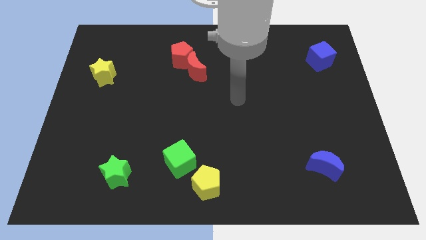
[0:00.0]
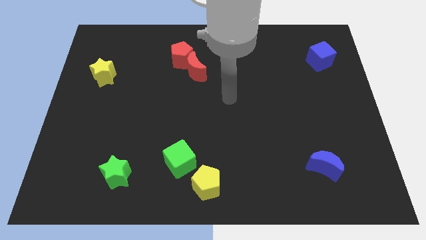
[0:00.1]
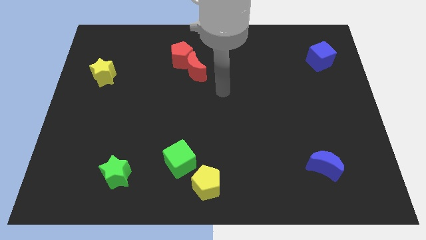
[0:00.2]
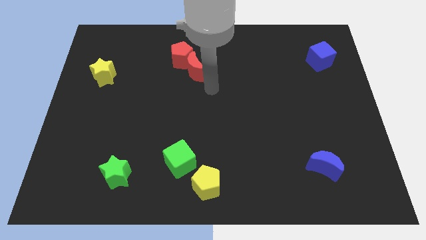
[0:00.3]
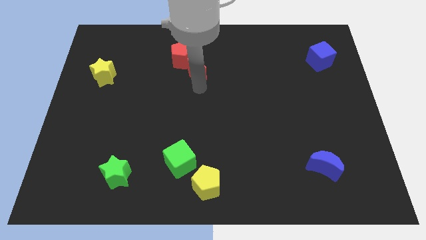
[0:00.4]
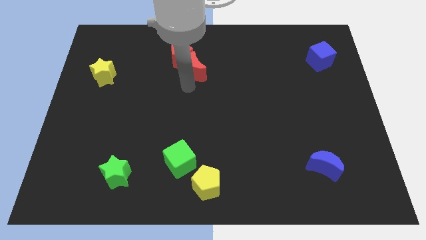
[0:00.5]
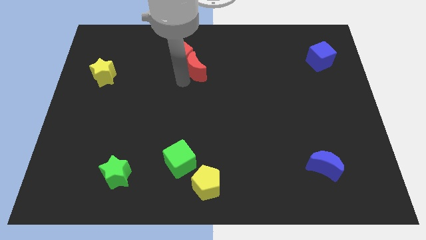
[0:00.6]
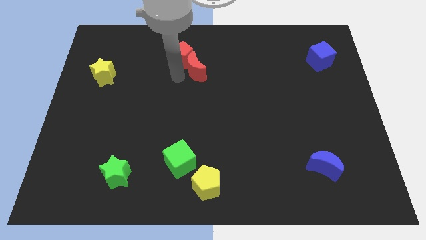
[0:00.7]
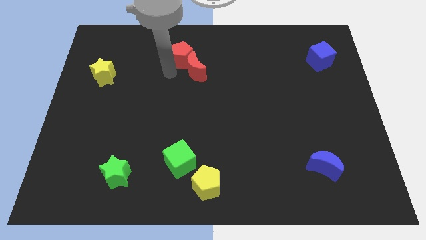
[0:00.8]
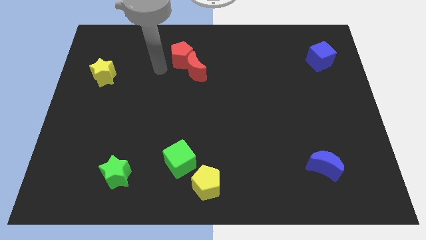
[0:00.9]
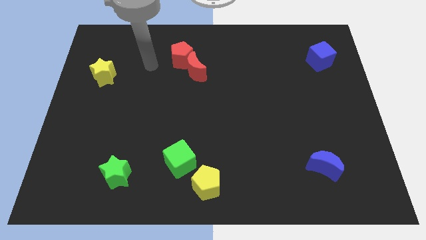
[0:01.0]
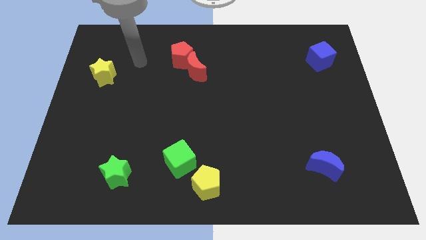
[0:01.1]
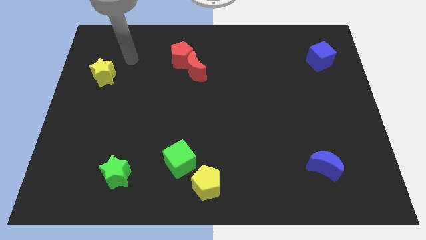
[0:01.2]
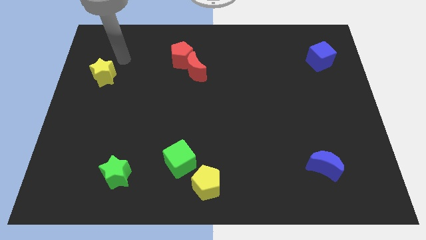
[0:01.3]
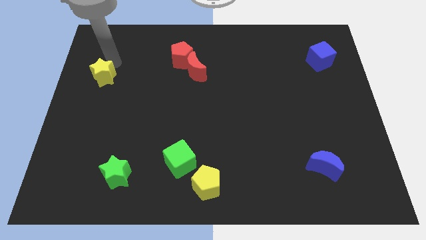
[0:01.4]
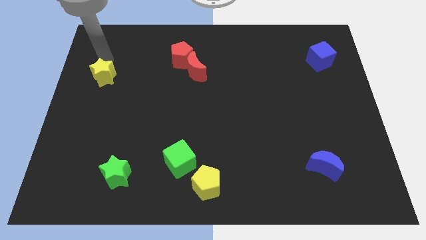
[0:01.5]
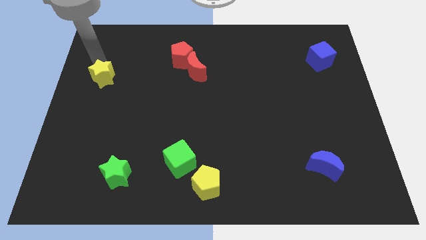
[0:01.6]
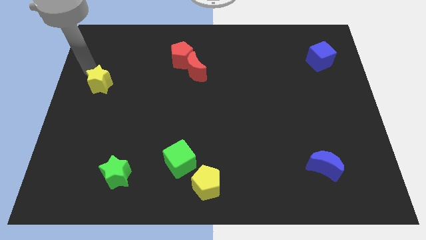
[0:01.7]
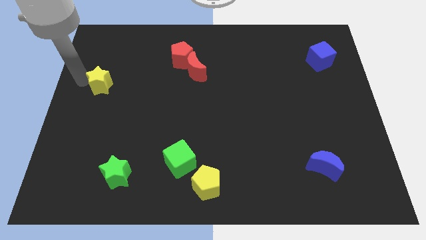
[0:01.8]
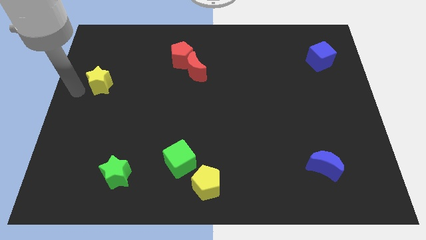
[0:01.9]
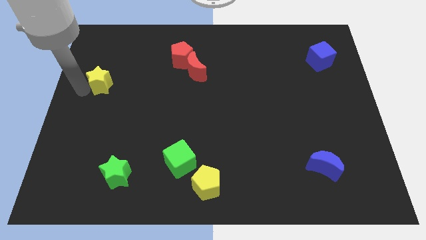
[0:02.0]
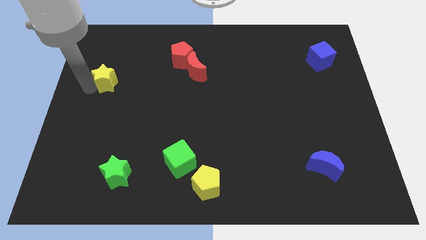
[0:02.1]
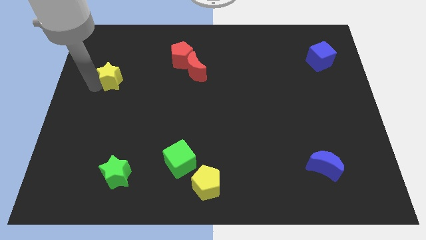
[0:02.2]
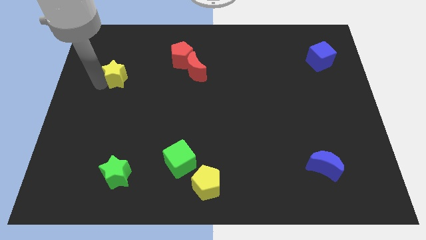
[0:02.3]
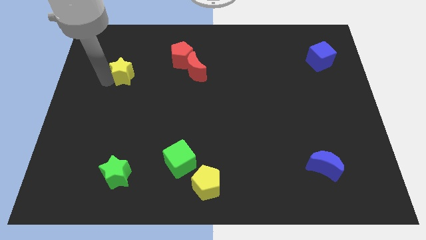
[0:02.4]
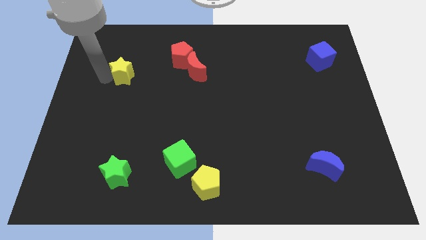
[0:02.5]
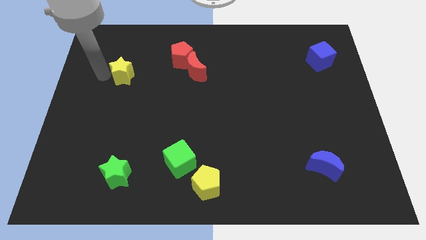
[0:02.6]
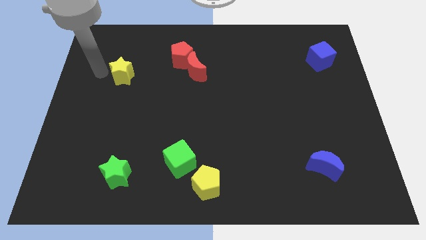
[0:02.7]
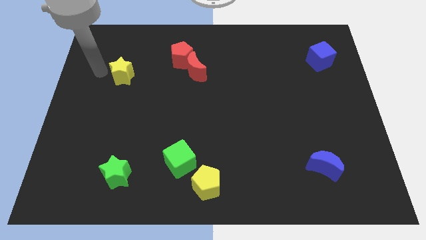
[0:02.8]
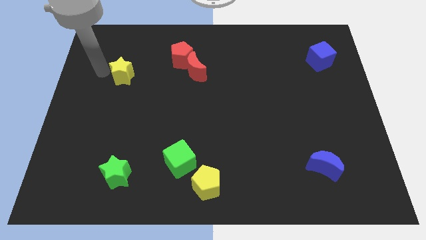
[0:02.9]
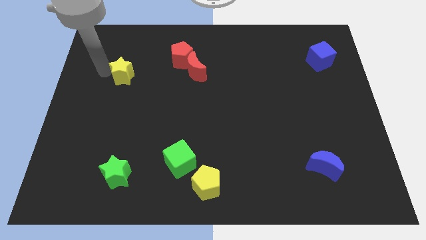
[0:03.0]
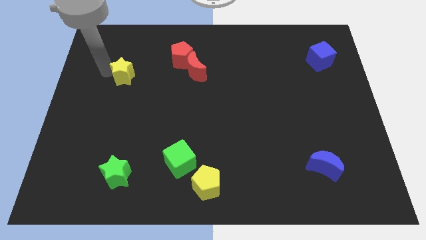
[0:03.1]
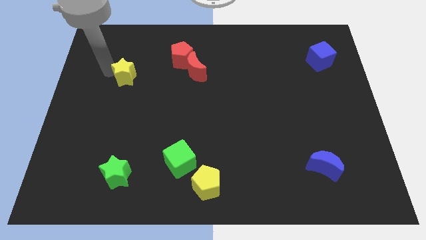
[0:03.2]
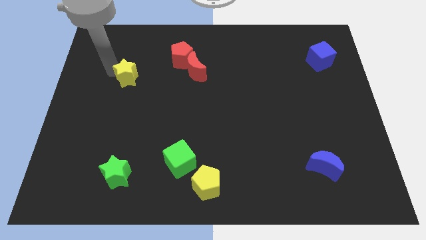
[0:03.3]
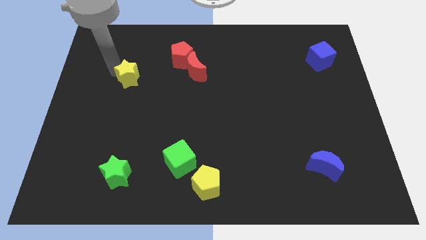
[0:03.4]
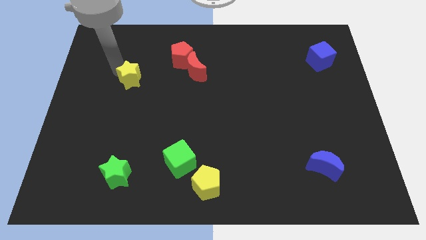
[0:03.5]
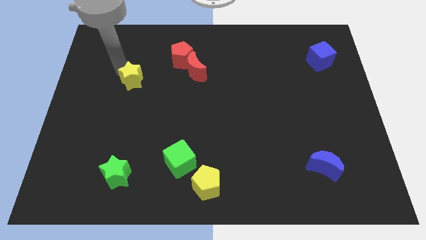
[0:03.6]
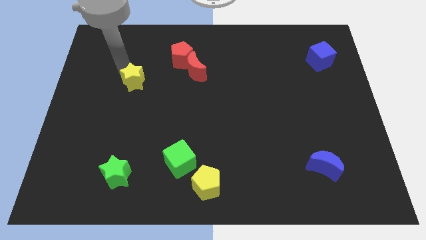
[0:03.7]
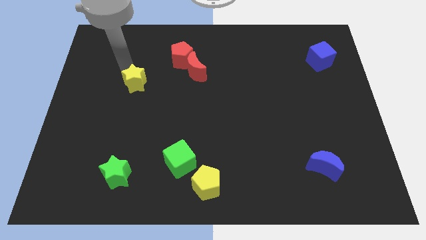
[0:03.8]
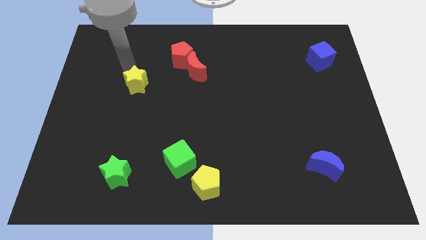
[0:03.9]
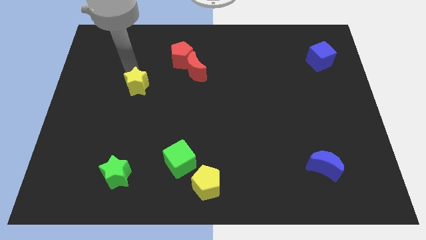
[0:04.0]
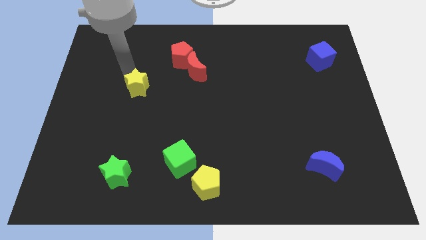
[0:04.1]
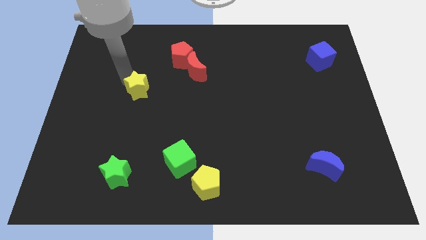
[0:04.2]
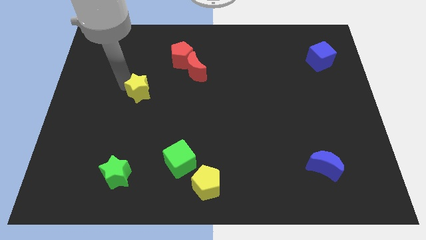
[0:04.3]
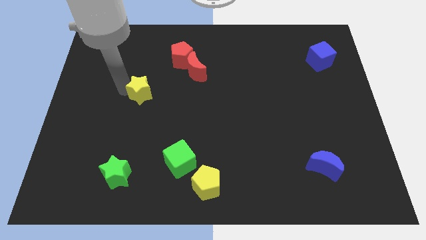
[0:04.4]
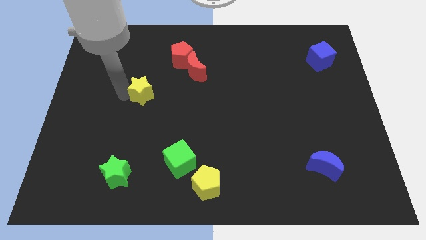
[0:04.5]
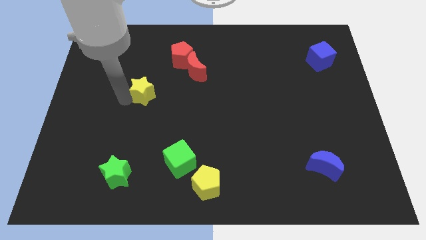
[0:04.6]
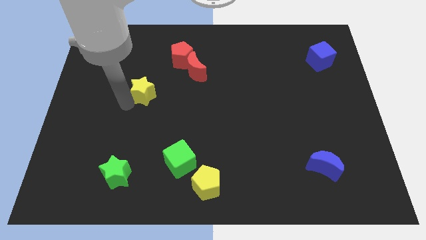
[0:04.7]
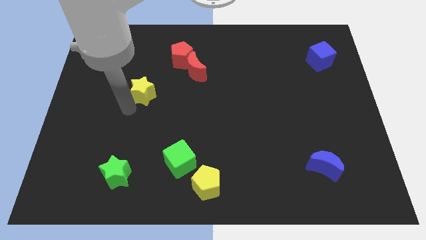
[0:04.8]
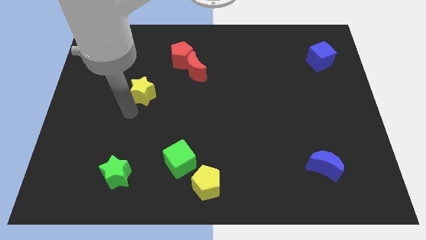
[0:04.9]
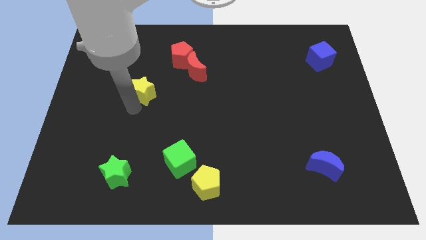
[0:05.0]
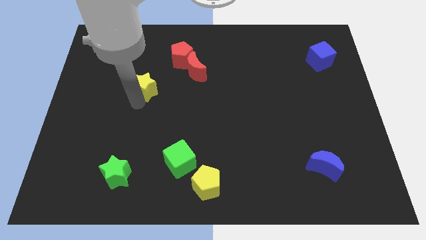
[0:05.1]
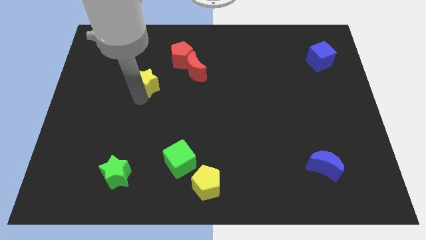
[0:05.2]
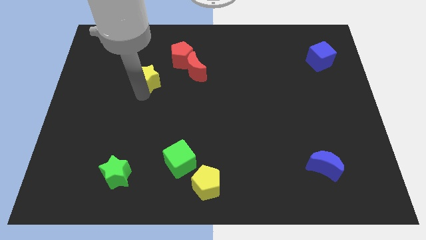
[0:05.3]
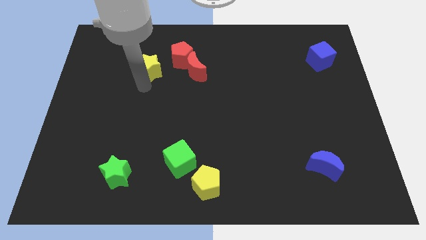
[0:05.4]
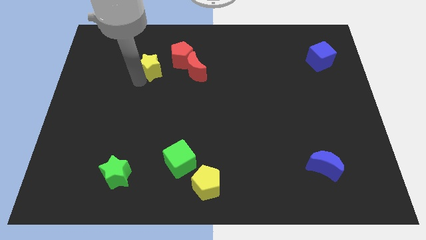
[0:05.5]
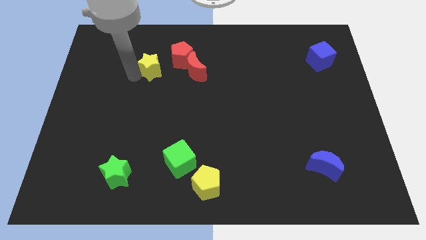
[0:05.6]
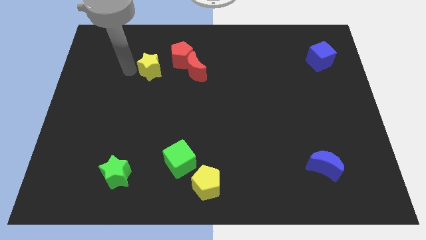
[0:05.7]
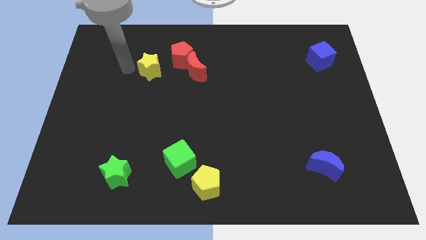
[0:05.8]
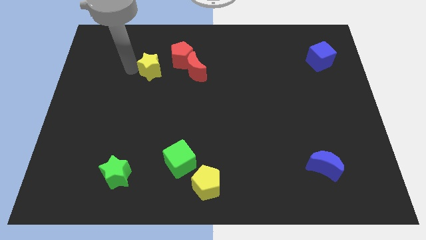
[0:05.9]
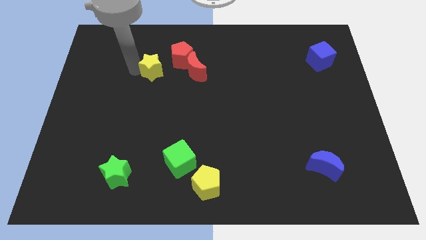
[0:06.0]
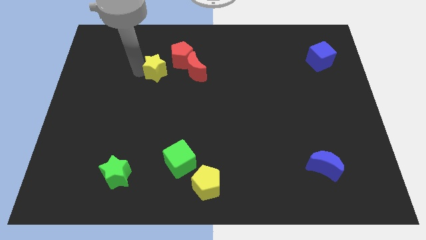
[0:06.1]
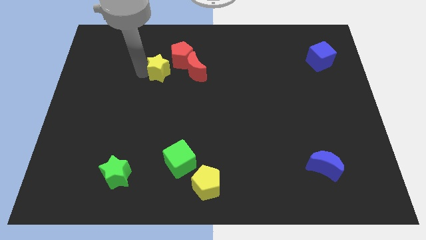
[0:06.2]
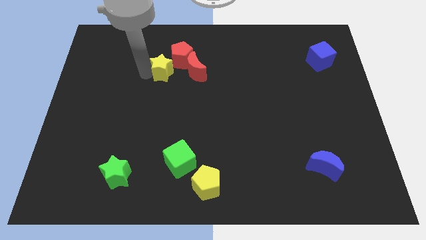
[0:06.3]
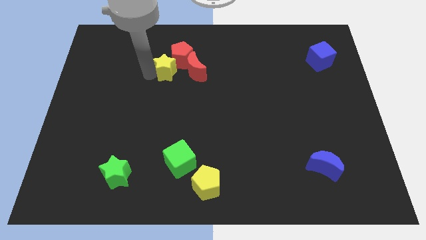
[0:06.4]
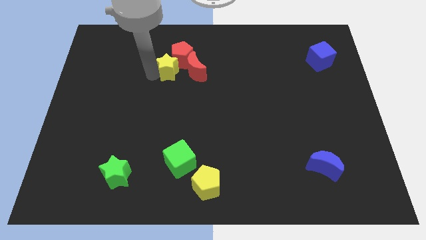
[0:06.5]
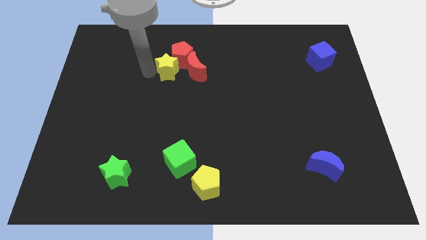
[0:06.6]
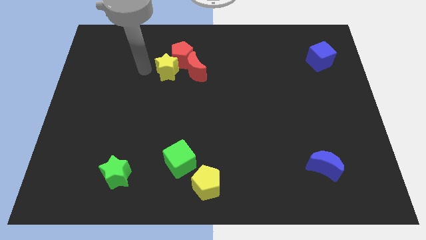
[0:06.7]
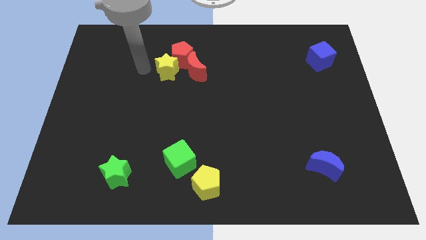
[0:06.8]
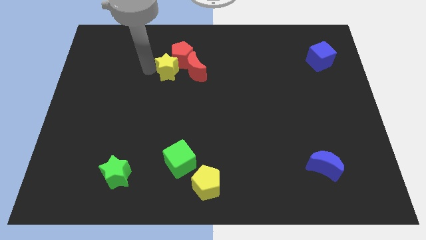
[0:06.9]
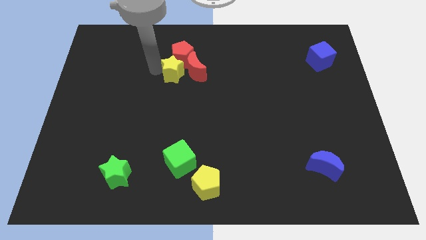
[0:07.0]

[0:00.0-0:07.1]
put the yellow star to the red moon
